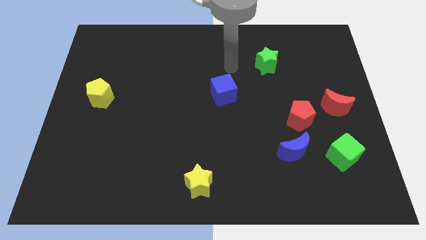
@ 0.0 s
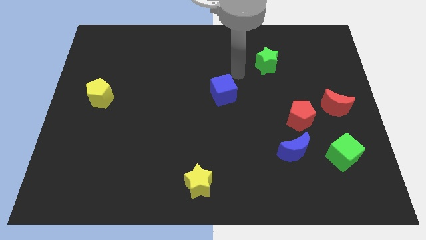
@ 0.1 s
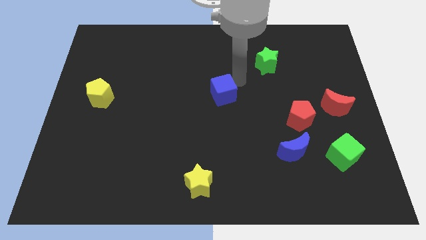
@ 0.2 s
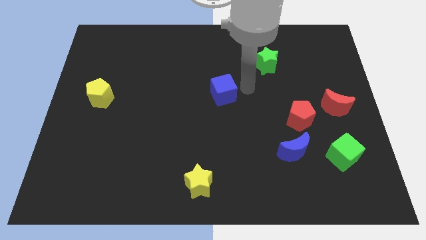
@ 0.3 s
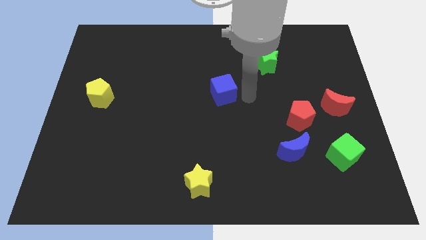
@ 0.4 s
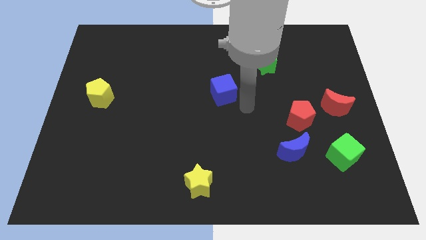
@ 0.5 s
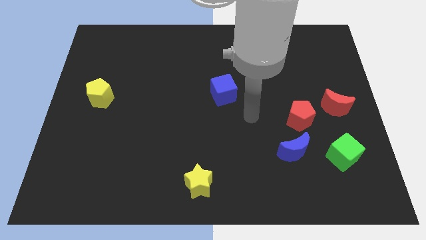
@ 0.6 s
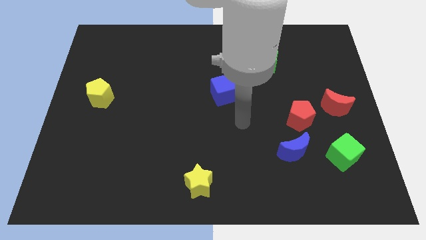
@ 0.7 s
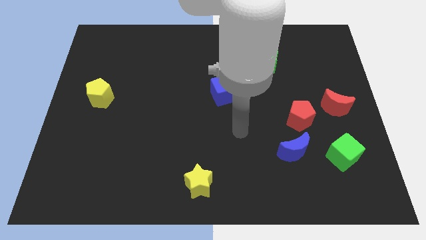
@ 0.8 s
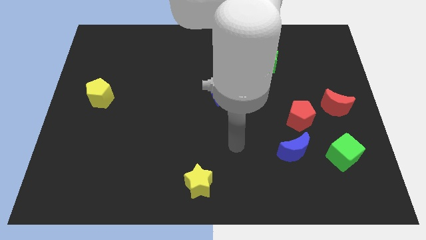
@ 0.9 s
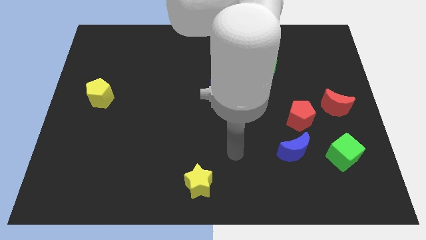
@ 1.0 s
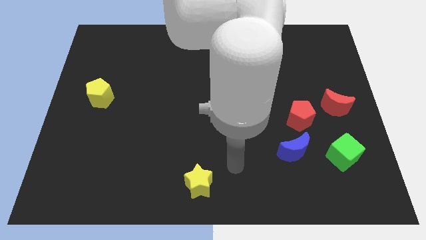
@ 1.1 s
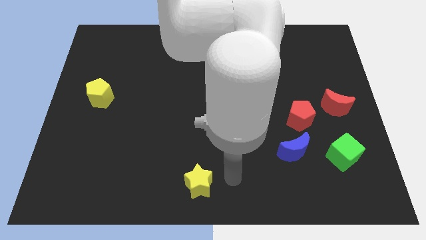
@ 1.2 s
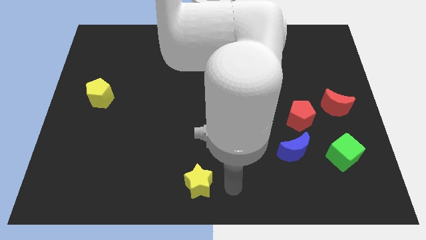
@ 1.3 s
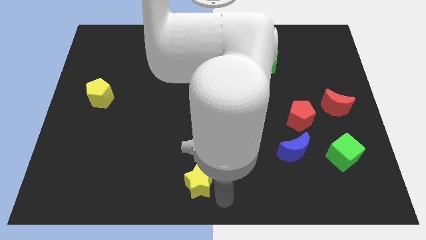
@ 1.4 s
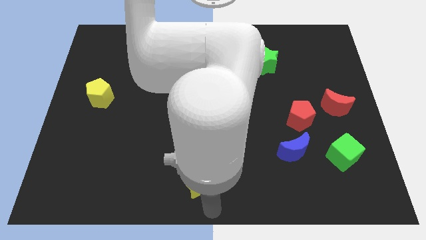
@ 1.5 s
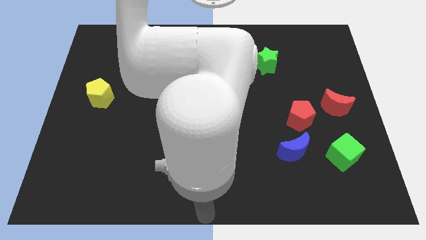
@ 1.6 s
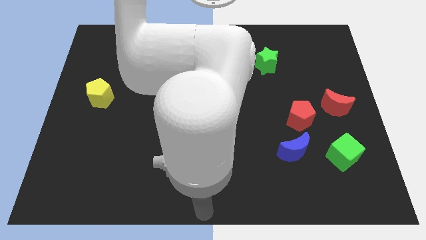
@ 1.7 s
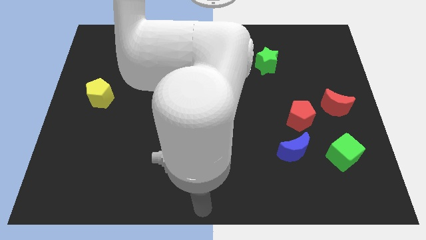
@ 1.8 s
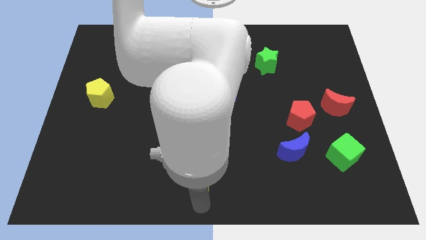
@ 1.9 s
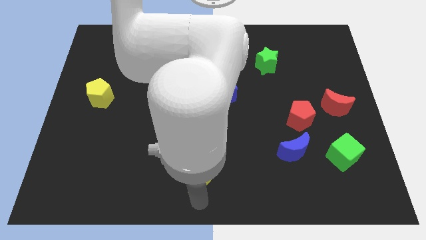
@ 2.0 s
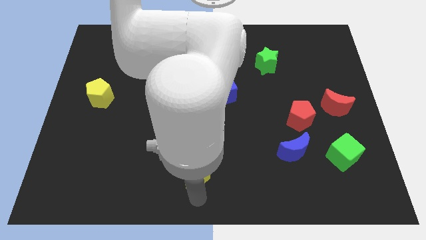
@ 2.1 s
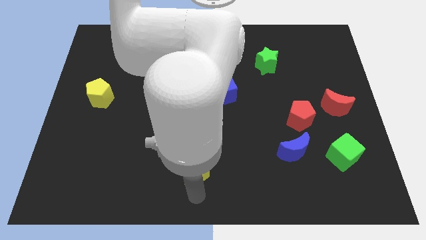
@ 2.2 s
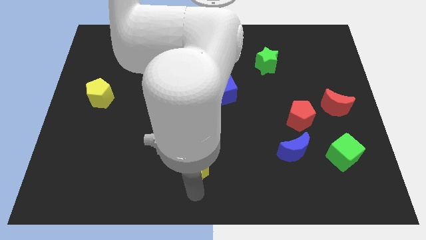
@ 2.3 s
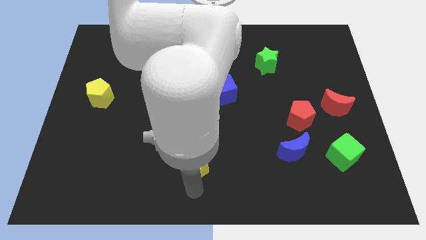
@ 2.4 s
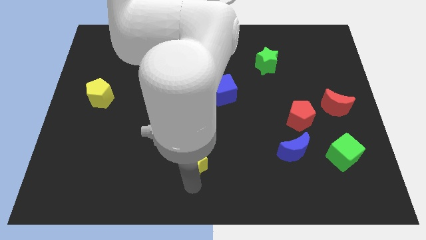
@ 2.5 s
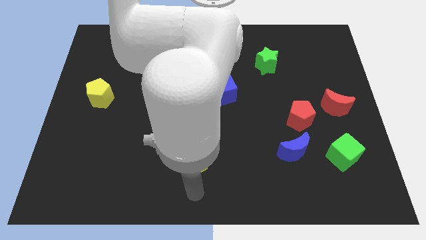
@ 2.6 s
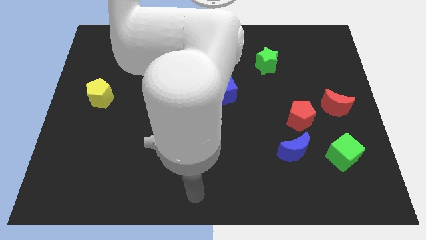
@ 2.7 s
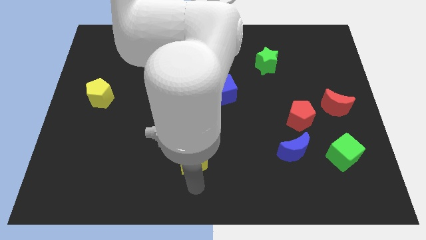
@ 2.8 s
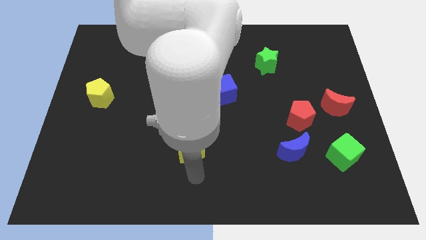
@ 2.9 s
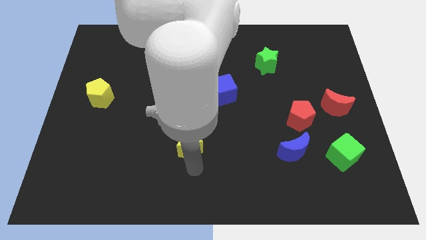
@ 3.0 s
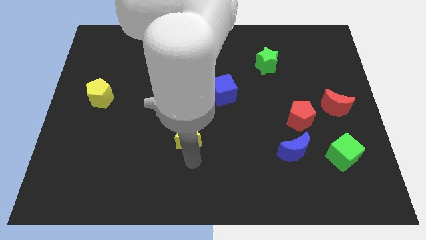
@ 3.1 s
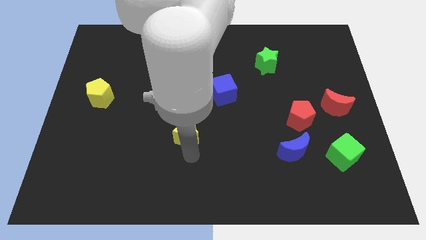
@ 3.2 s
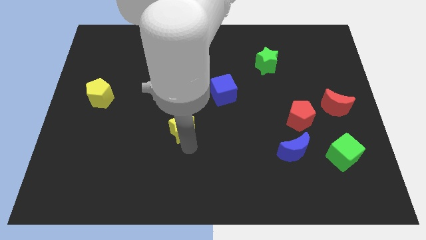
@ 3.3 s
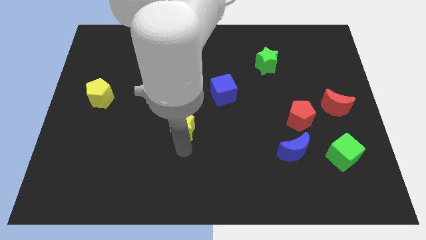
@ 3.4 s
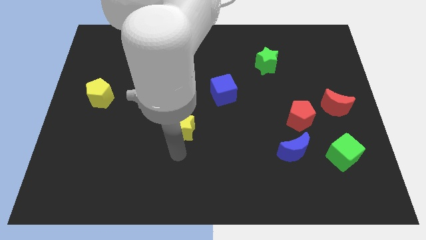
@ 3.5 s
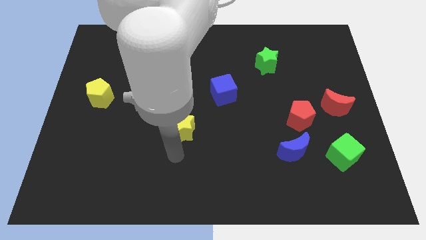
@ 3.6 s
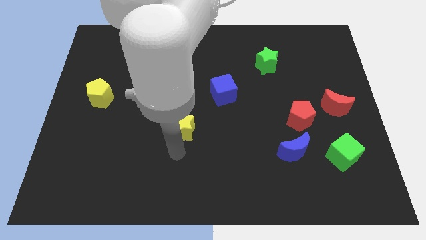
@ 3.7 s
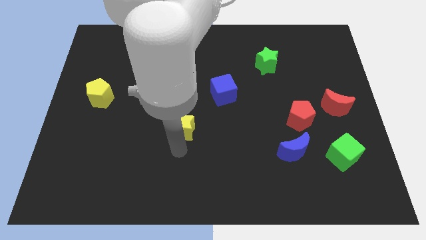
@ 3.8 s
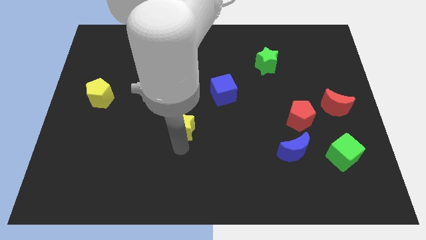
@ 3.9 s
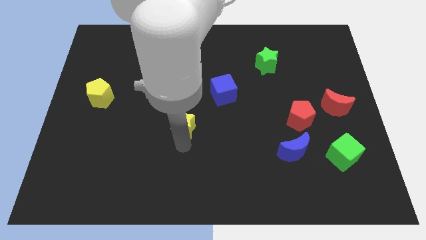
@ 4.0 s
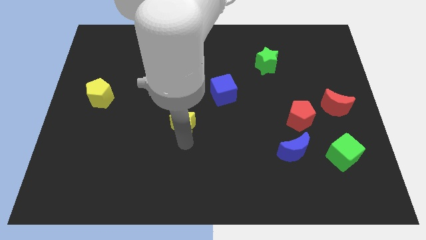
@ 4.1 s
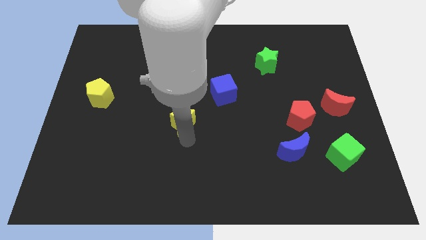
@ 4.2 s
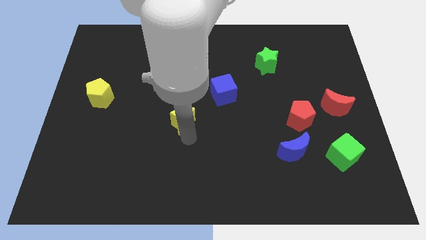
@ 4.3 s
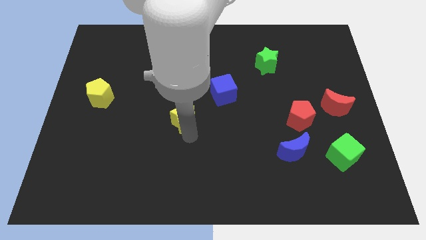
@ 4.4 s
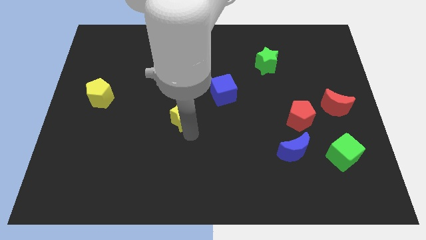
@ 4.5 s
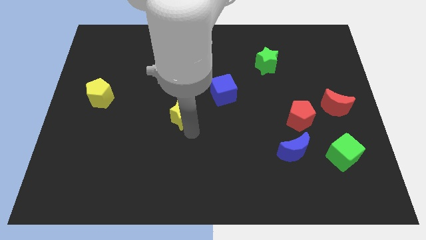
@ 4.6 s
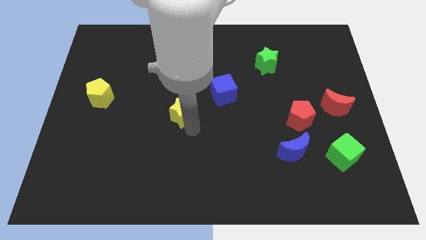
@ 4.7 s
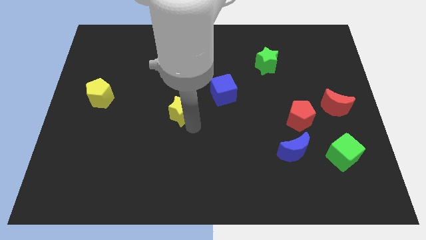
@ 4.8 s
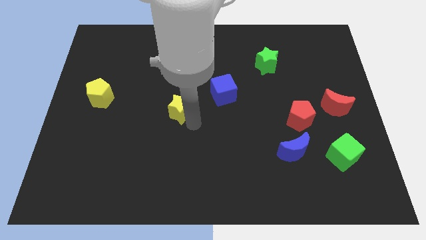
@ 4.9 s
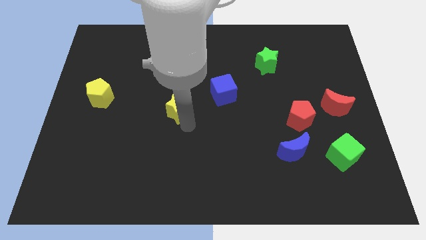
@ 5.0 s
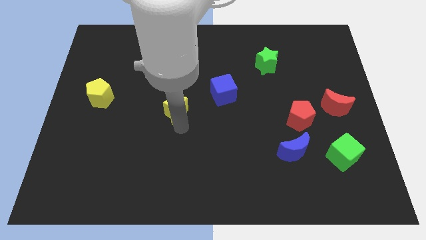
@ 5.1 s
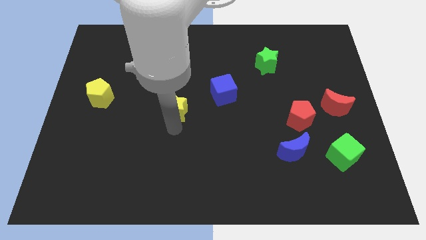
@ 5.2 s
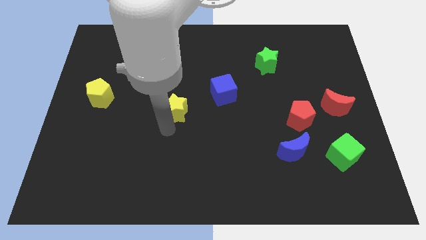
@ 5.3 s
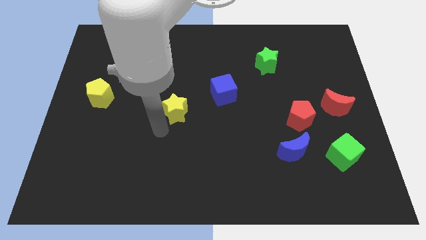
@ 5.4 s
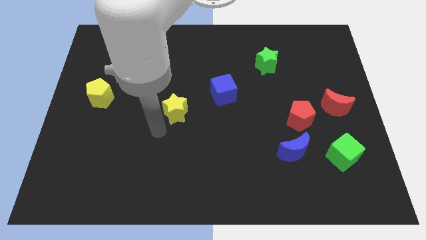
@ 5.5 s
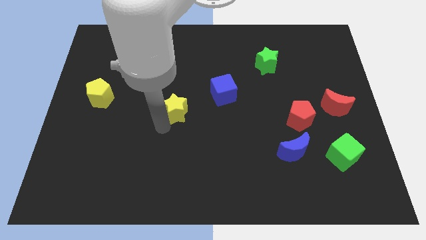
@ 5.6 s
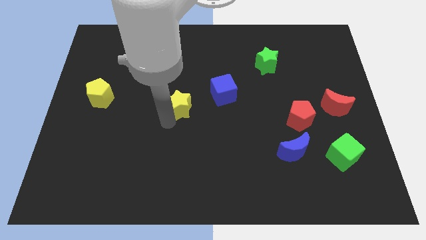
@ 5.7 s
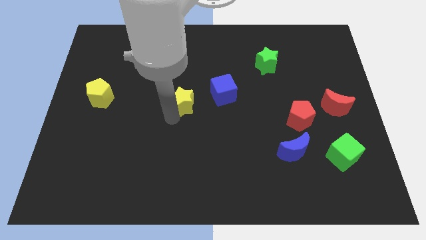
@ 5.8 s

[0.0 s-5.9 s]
push the yellow star upwards

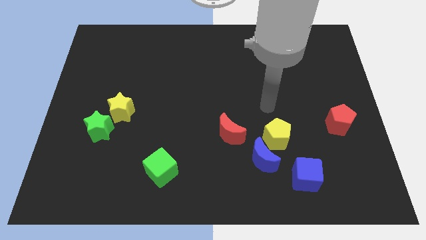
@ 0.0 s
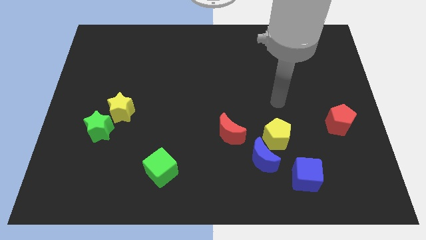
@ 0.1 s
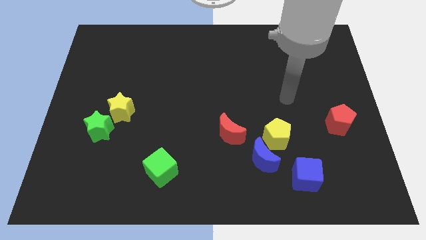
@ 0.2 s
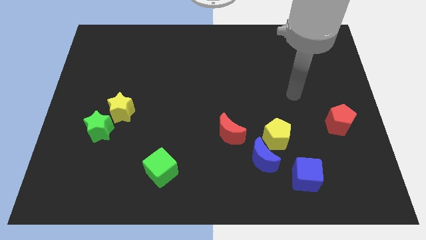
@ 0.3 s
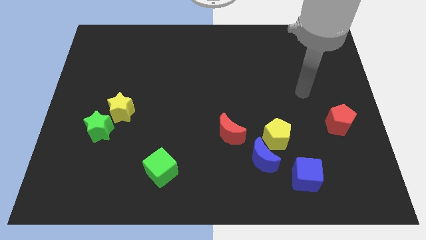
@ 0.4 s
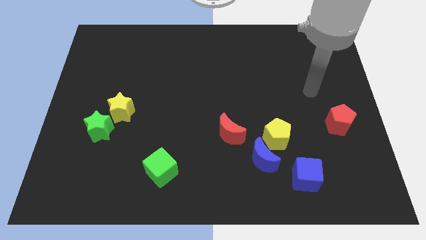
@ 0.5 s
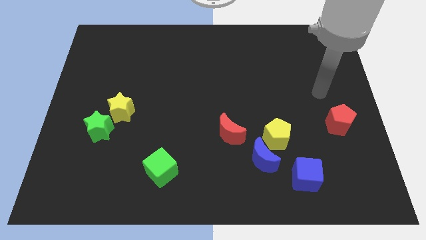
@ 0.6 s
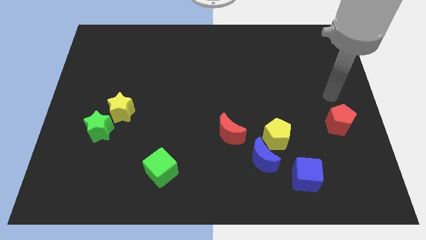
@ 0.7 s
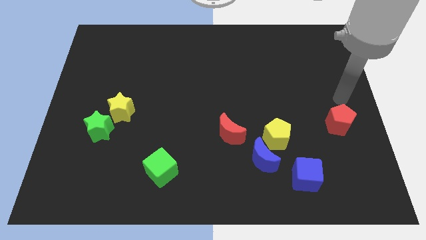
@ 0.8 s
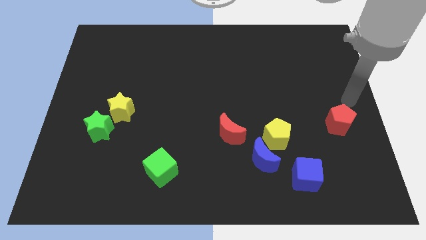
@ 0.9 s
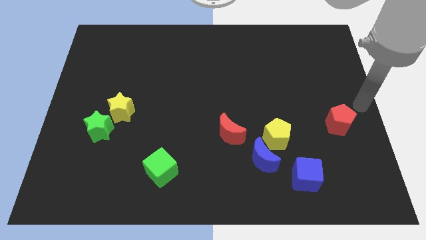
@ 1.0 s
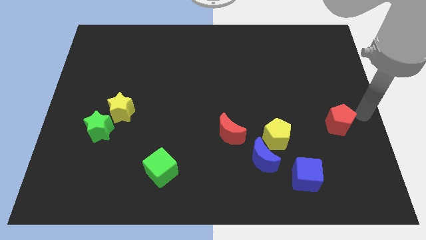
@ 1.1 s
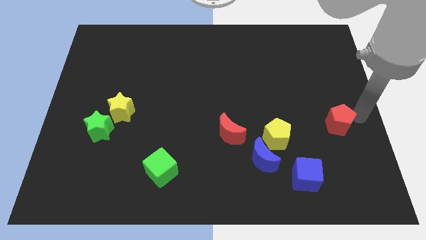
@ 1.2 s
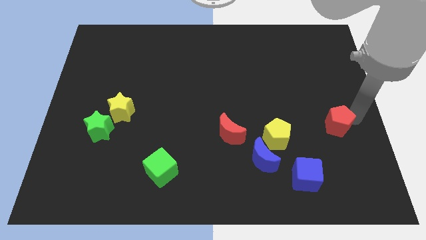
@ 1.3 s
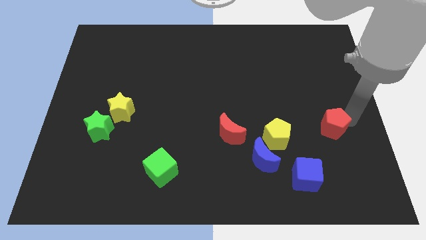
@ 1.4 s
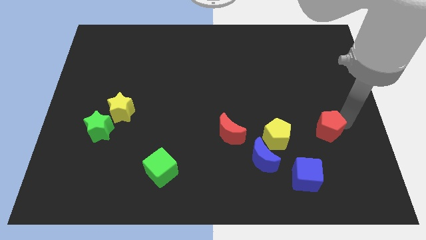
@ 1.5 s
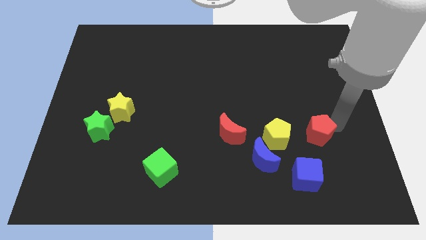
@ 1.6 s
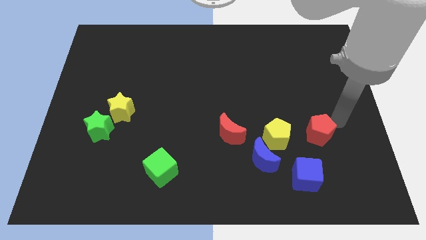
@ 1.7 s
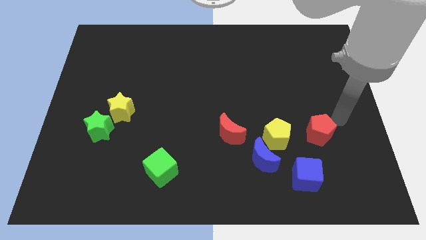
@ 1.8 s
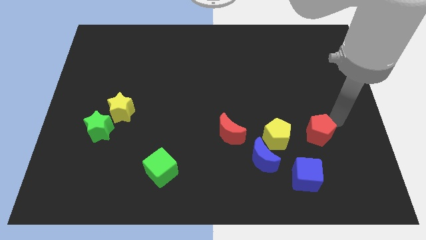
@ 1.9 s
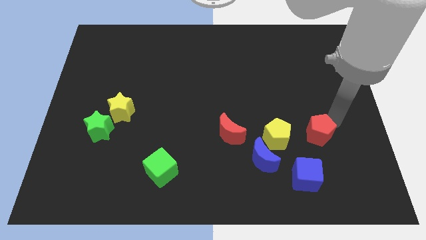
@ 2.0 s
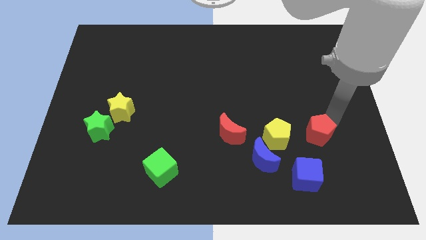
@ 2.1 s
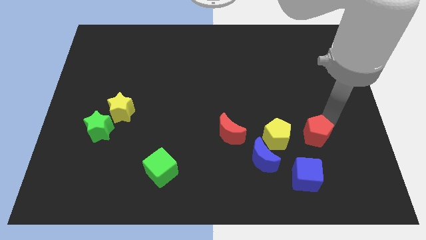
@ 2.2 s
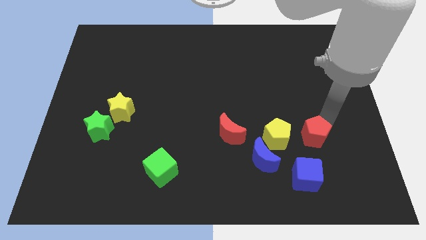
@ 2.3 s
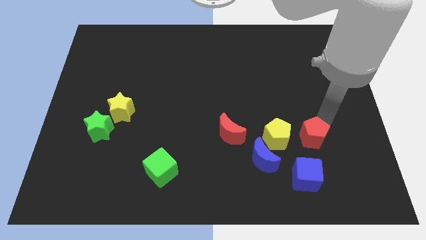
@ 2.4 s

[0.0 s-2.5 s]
slightly slide the red pentagon downwards and to the left diagonally
